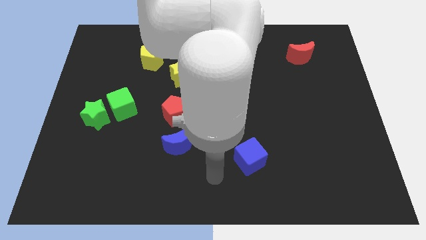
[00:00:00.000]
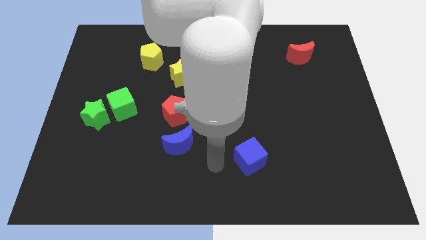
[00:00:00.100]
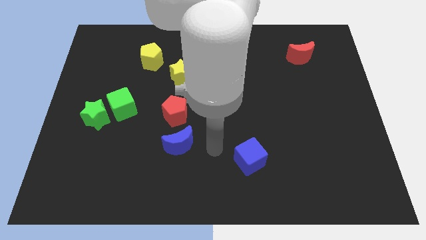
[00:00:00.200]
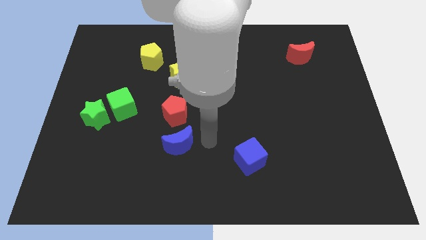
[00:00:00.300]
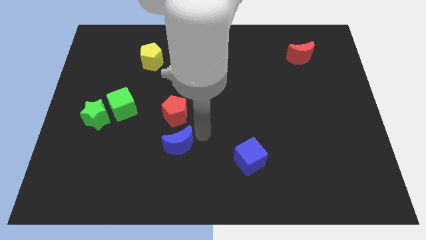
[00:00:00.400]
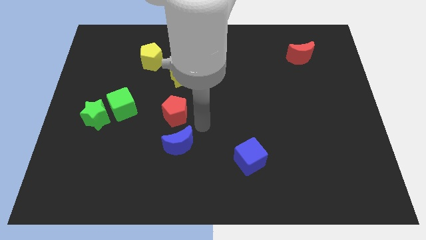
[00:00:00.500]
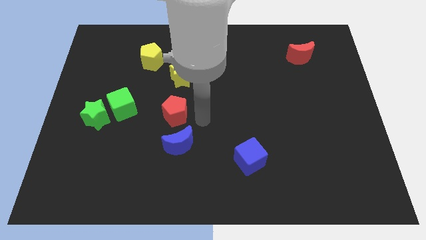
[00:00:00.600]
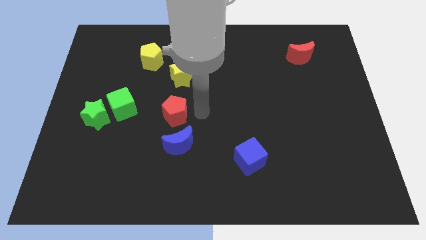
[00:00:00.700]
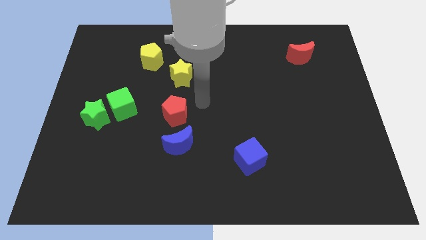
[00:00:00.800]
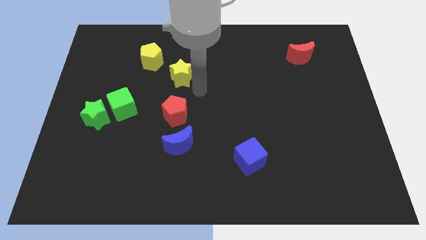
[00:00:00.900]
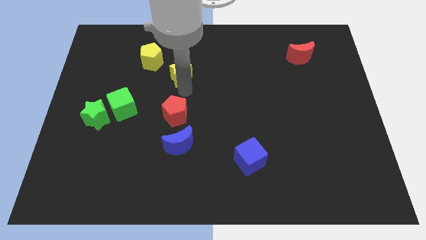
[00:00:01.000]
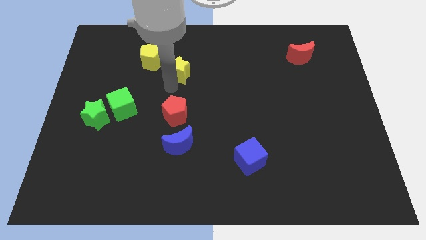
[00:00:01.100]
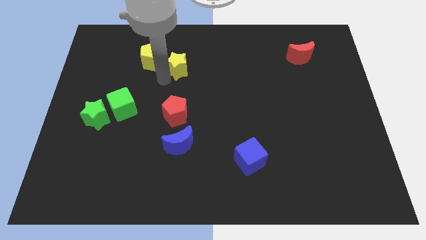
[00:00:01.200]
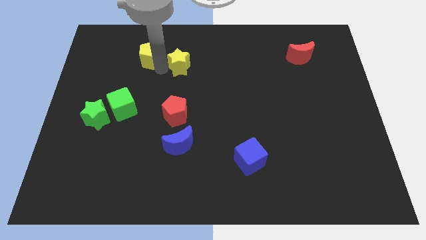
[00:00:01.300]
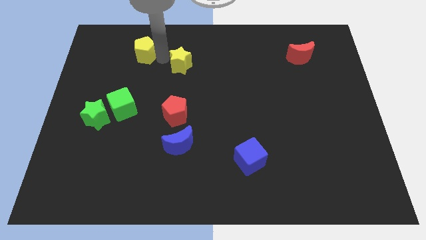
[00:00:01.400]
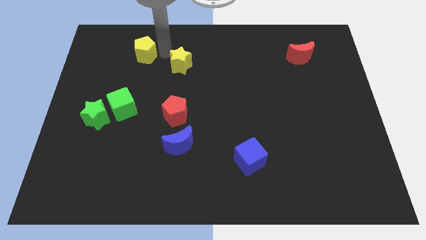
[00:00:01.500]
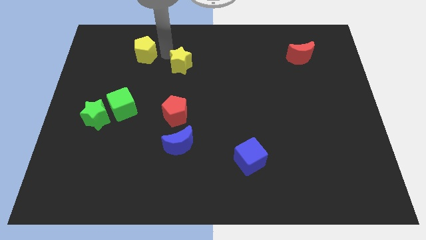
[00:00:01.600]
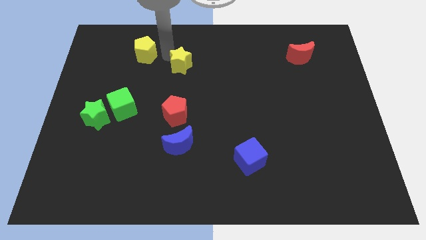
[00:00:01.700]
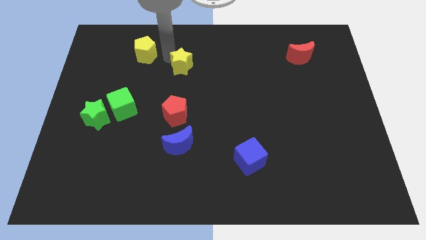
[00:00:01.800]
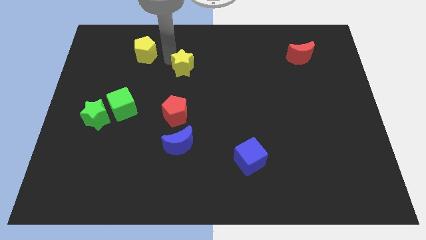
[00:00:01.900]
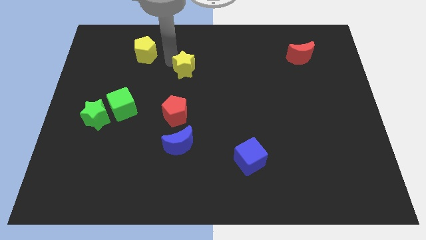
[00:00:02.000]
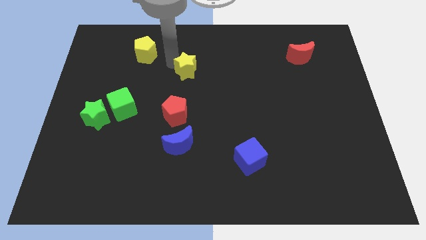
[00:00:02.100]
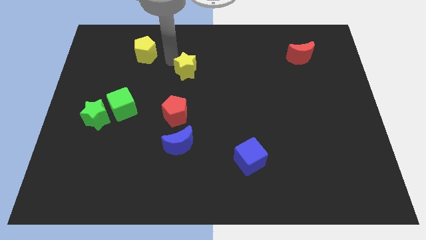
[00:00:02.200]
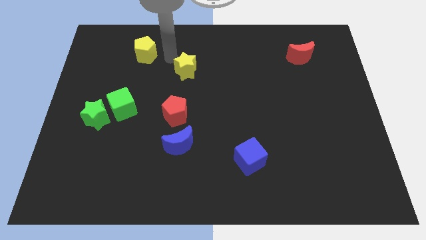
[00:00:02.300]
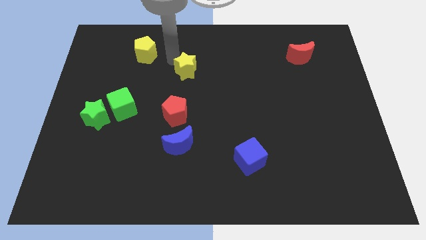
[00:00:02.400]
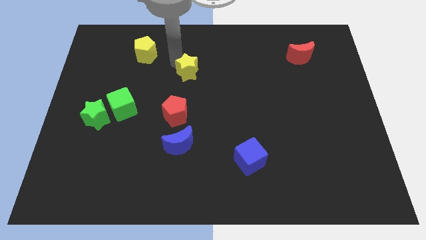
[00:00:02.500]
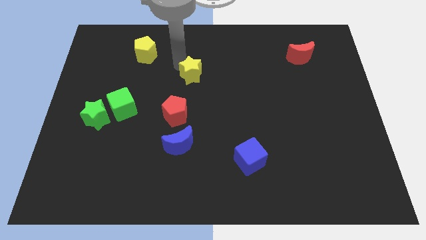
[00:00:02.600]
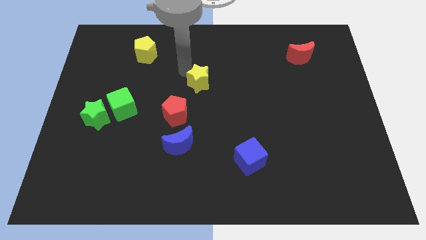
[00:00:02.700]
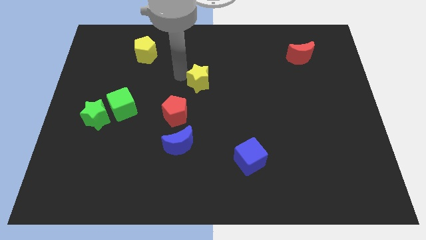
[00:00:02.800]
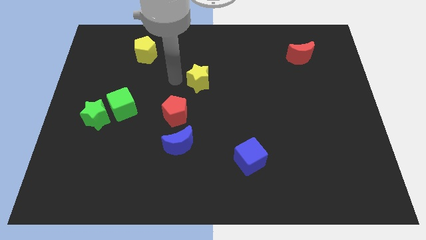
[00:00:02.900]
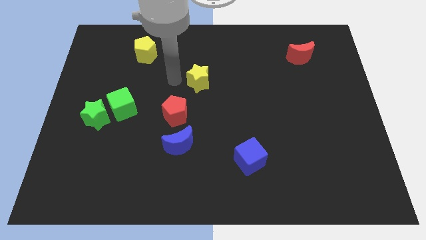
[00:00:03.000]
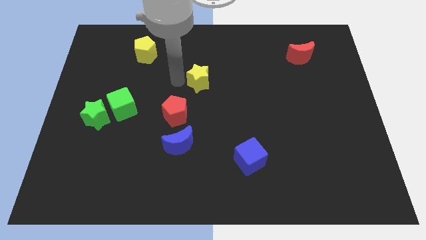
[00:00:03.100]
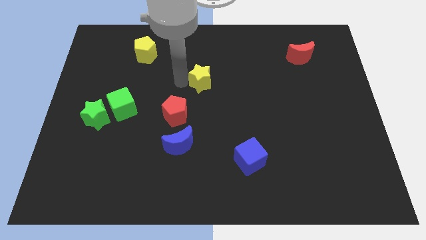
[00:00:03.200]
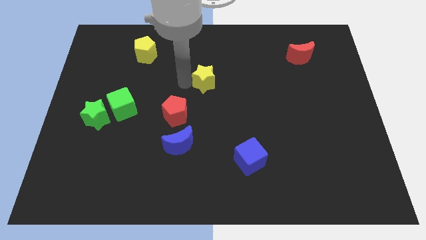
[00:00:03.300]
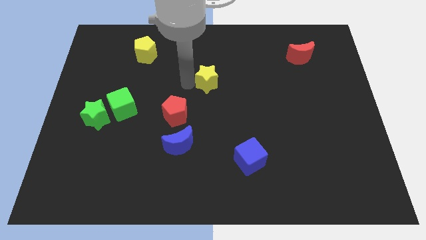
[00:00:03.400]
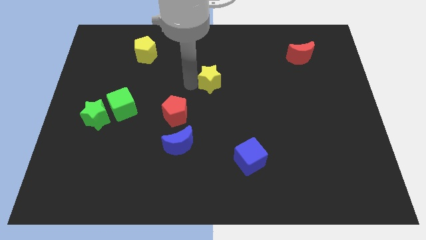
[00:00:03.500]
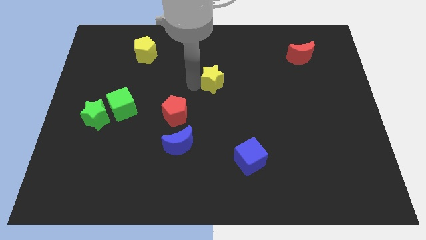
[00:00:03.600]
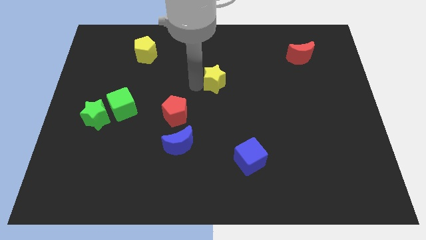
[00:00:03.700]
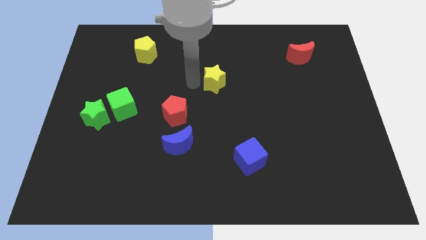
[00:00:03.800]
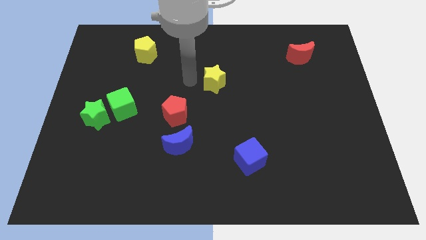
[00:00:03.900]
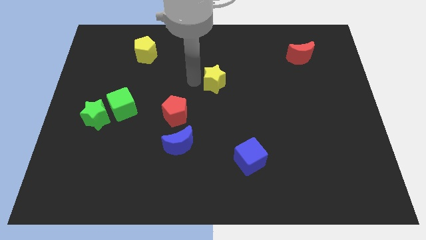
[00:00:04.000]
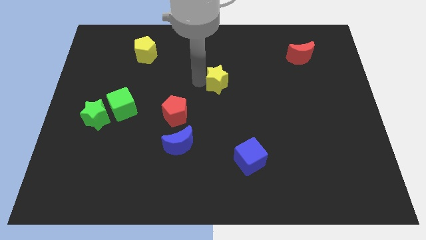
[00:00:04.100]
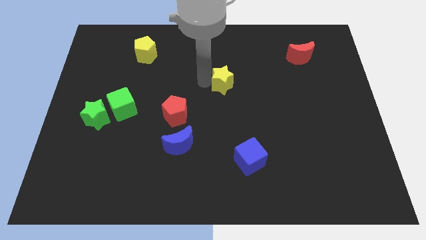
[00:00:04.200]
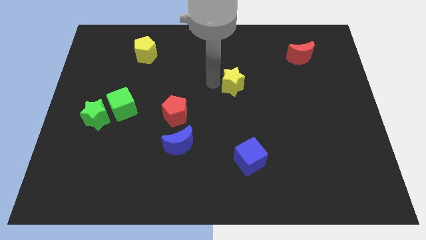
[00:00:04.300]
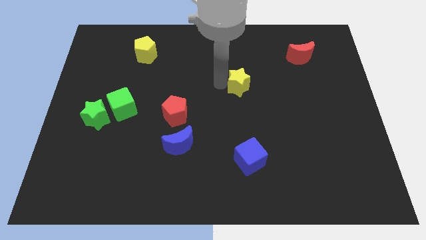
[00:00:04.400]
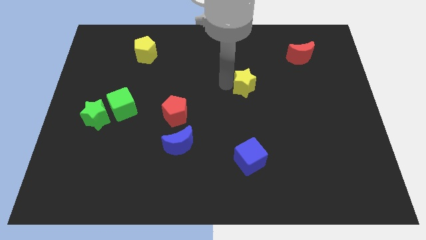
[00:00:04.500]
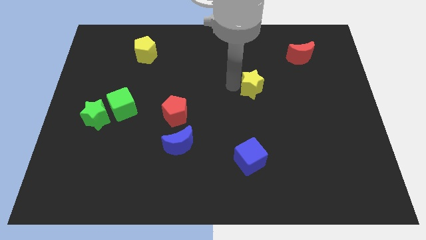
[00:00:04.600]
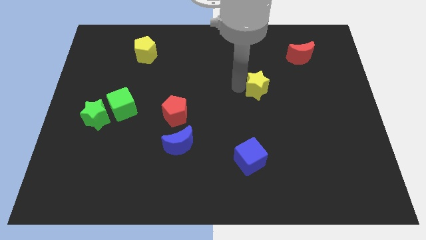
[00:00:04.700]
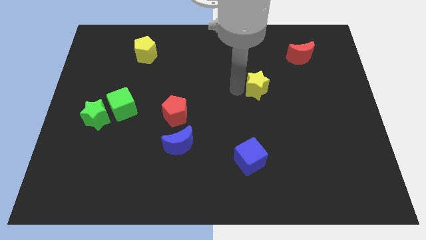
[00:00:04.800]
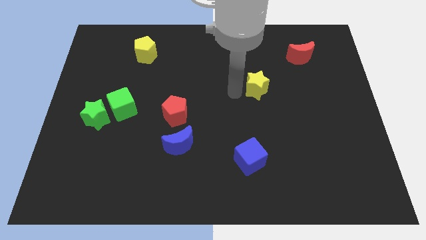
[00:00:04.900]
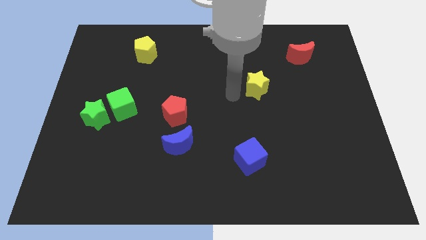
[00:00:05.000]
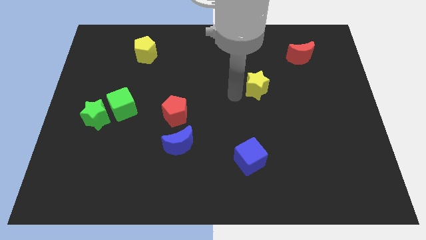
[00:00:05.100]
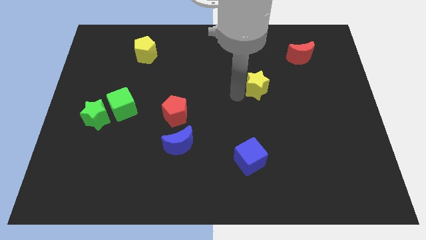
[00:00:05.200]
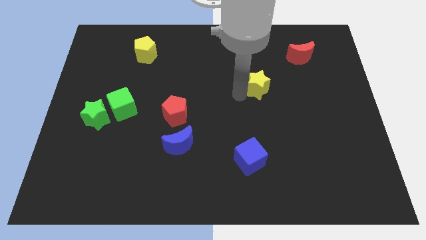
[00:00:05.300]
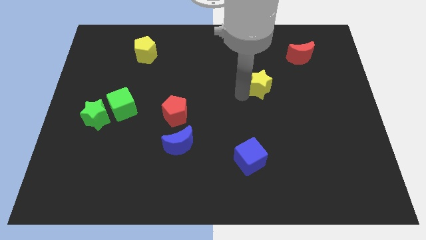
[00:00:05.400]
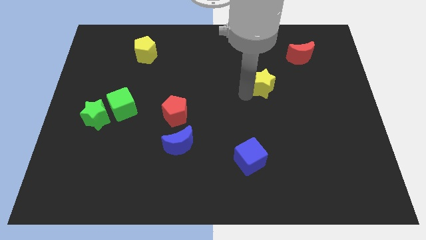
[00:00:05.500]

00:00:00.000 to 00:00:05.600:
push the yellow star to the right

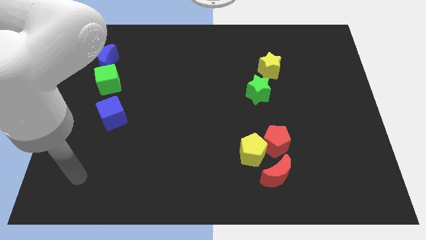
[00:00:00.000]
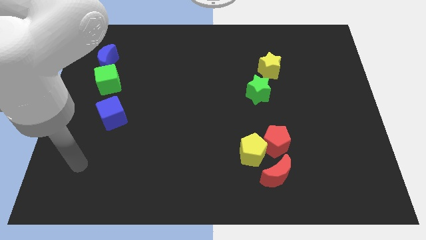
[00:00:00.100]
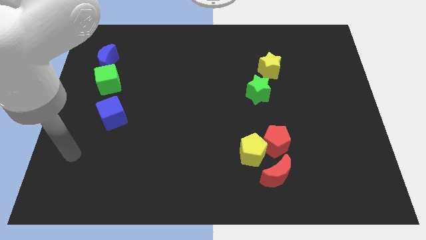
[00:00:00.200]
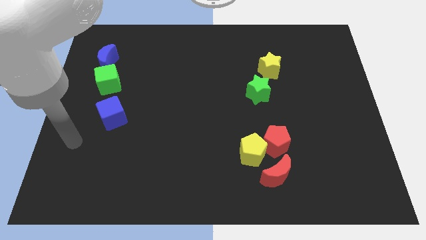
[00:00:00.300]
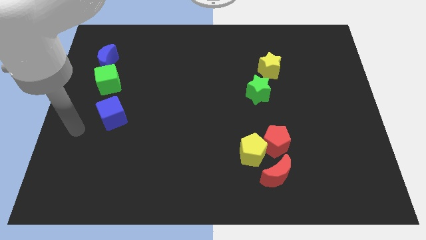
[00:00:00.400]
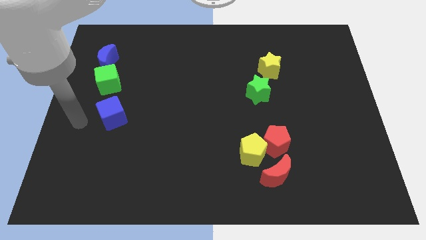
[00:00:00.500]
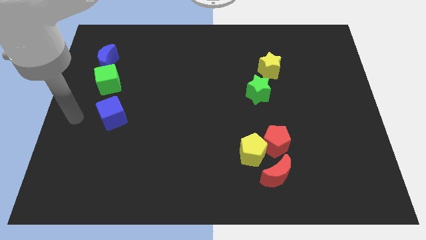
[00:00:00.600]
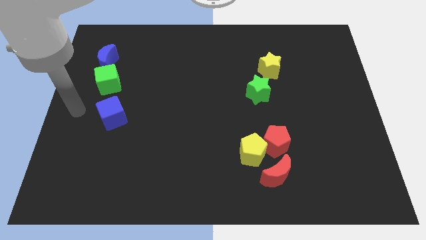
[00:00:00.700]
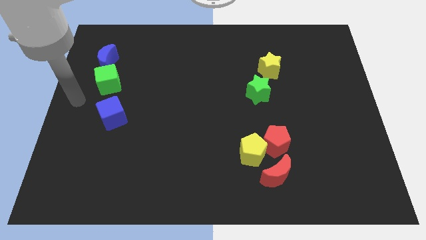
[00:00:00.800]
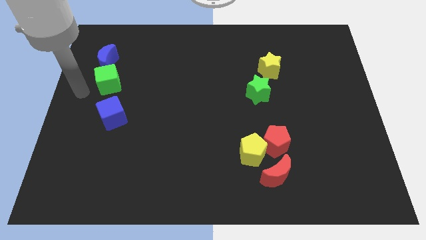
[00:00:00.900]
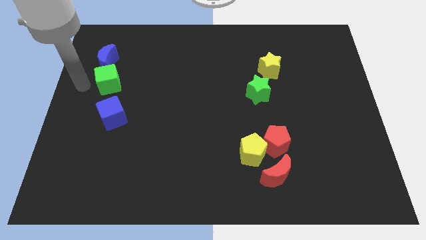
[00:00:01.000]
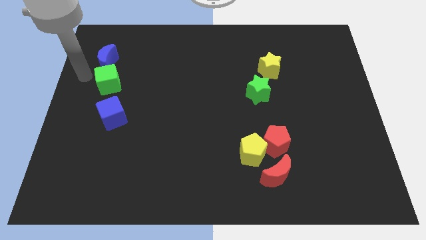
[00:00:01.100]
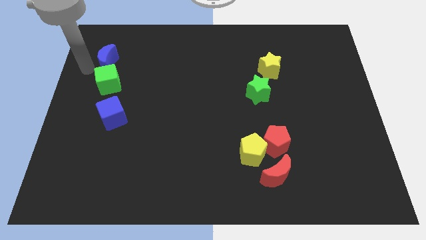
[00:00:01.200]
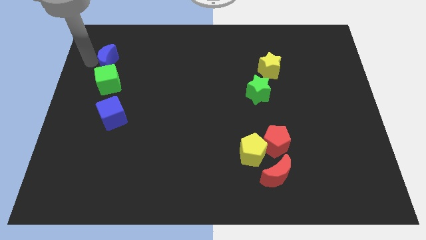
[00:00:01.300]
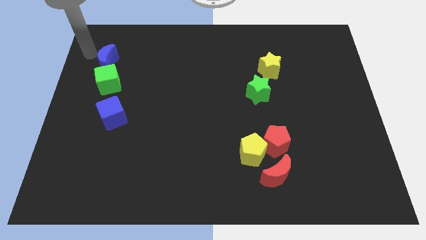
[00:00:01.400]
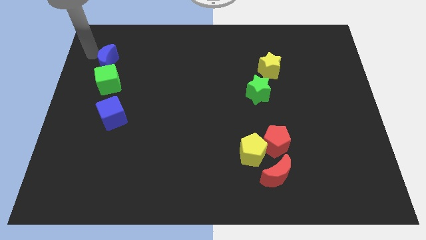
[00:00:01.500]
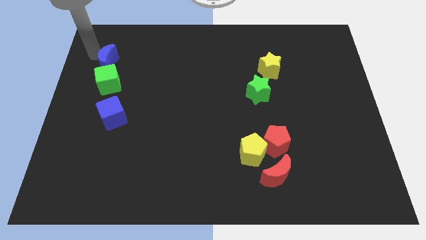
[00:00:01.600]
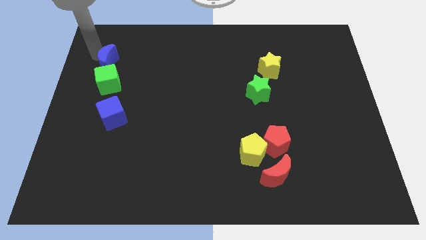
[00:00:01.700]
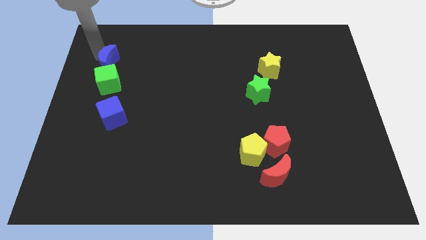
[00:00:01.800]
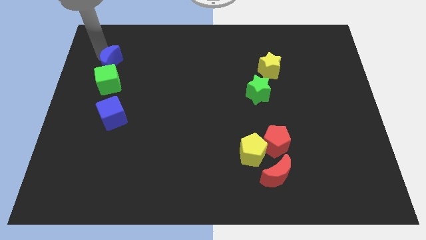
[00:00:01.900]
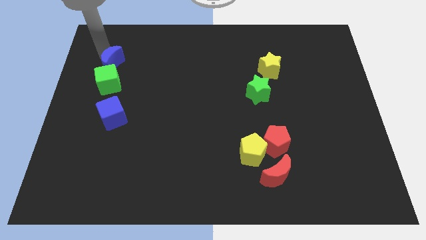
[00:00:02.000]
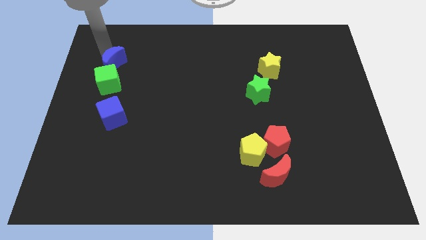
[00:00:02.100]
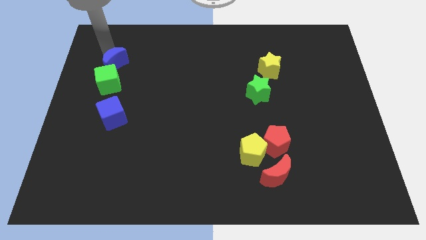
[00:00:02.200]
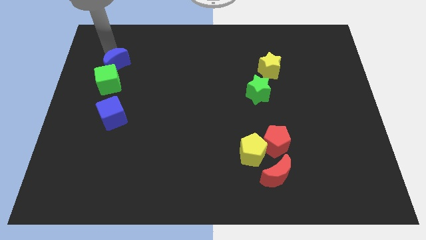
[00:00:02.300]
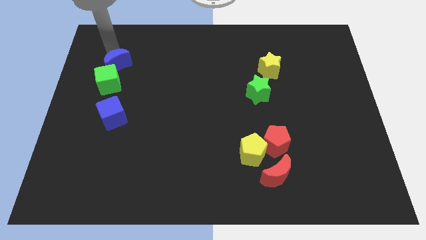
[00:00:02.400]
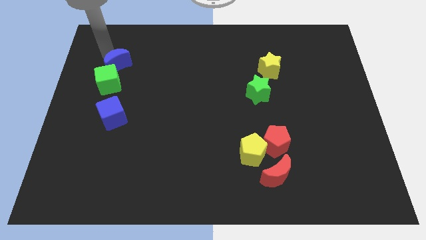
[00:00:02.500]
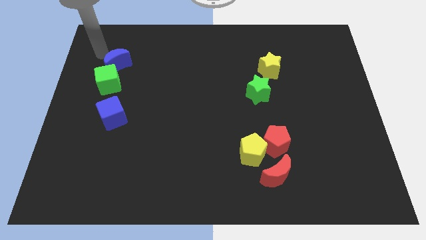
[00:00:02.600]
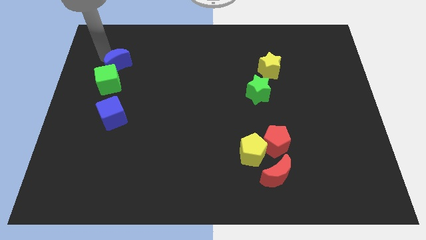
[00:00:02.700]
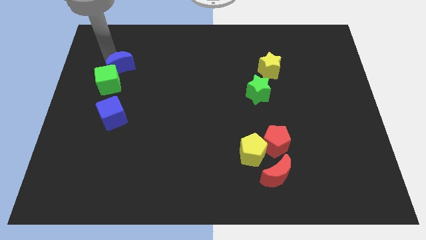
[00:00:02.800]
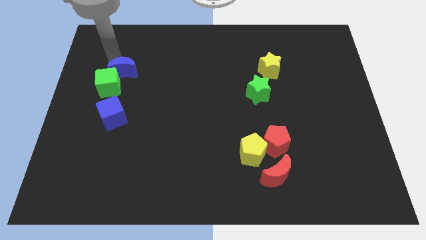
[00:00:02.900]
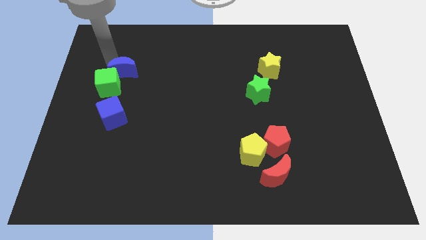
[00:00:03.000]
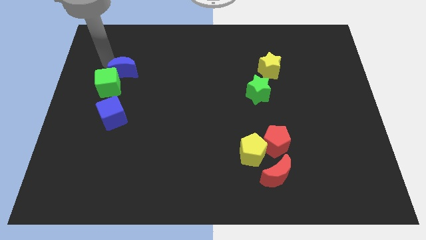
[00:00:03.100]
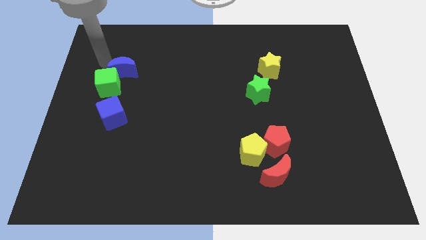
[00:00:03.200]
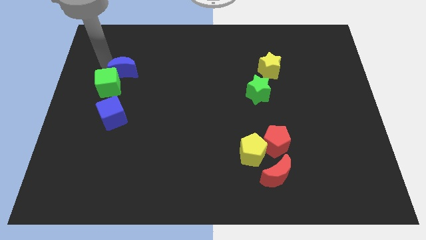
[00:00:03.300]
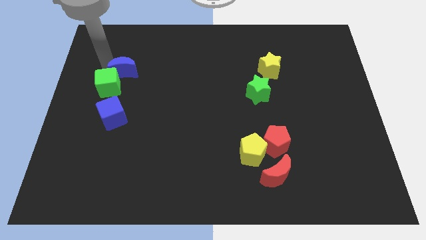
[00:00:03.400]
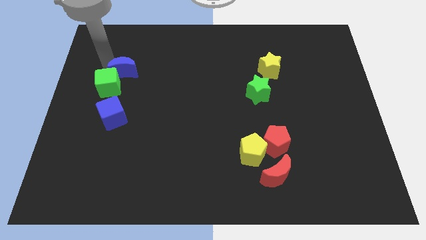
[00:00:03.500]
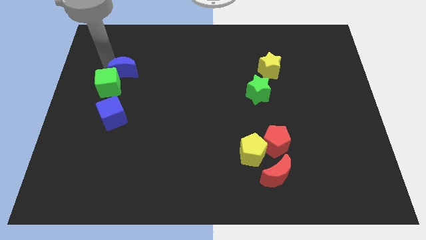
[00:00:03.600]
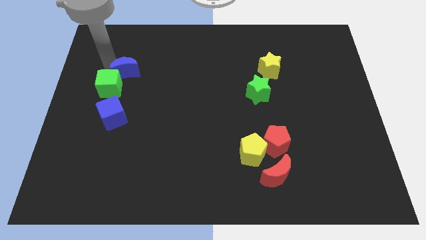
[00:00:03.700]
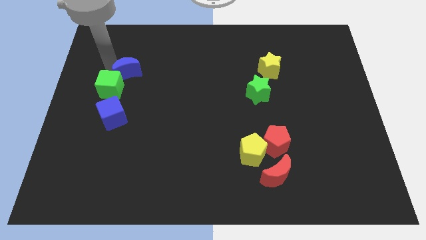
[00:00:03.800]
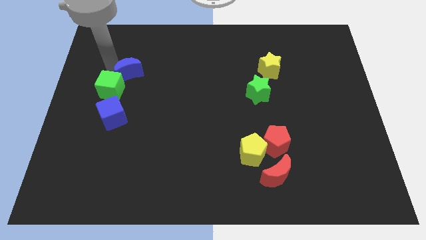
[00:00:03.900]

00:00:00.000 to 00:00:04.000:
move the blue moon somewhat diagonally down and to the right
